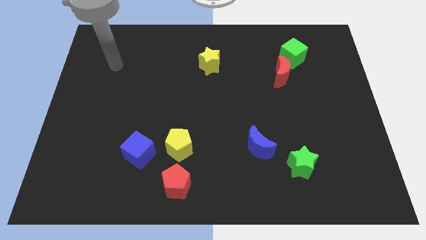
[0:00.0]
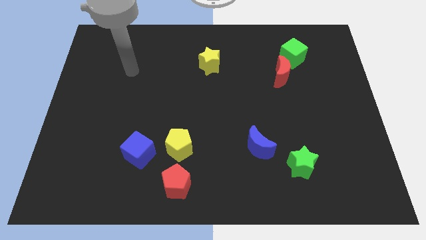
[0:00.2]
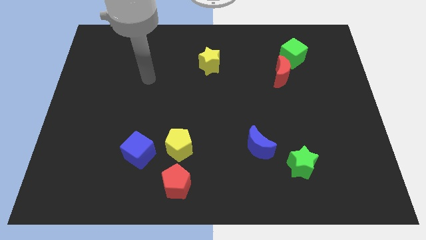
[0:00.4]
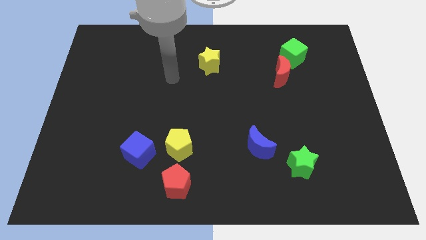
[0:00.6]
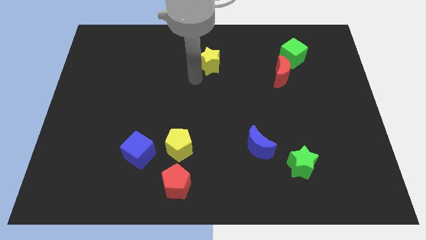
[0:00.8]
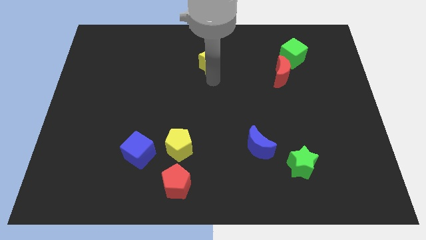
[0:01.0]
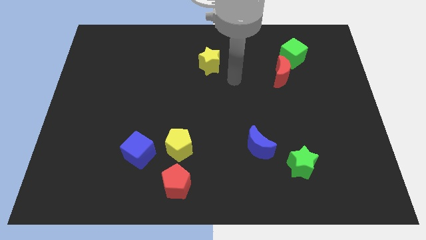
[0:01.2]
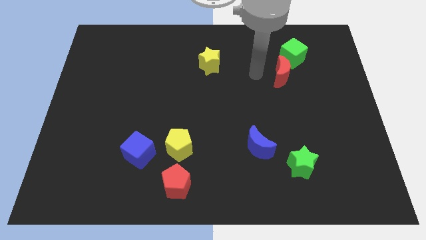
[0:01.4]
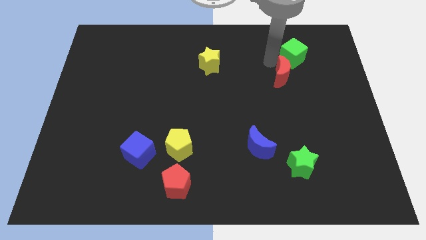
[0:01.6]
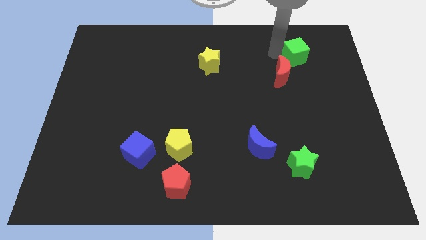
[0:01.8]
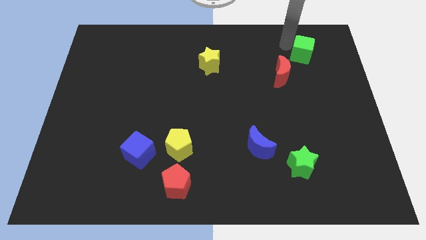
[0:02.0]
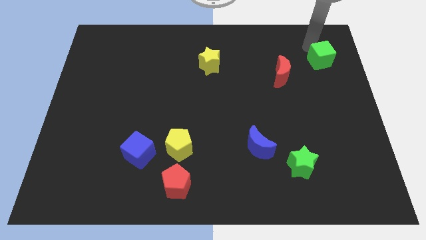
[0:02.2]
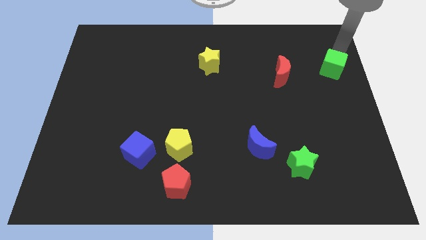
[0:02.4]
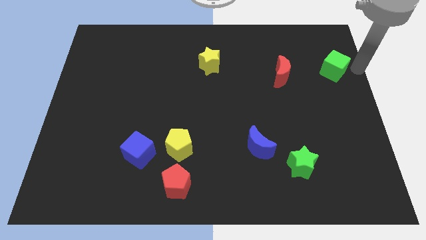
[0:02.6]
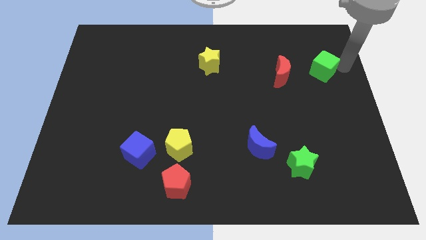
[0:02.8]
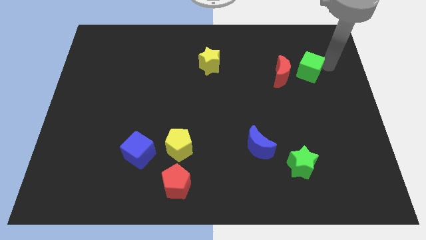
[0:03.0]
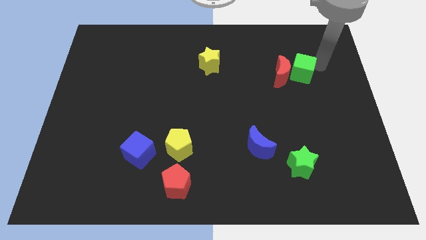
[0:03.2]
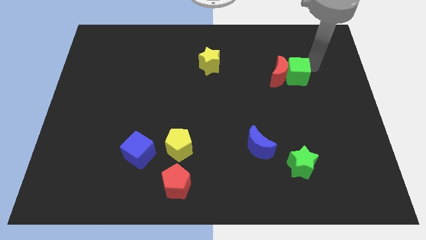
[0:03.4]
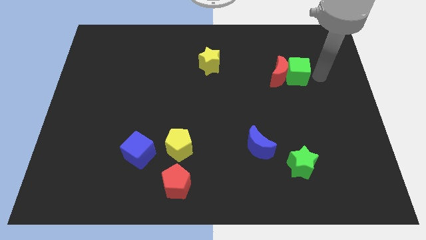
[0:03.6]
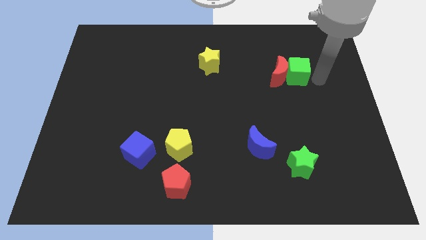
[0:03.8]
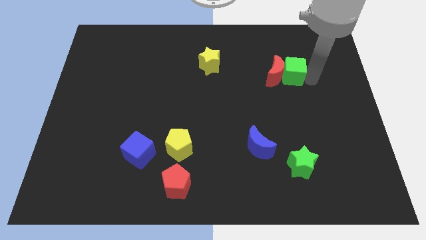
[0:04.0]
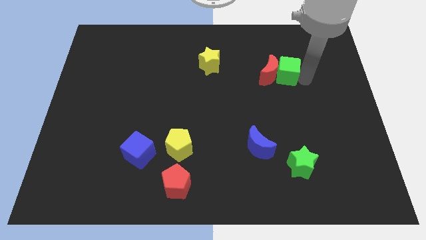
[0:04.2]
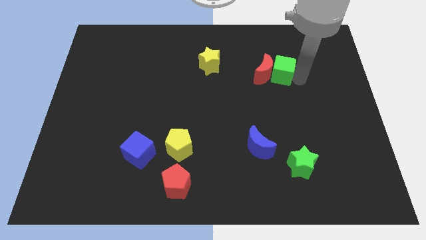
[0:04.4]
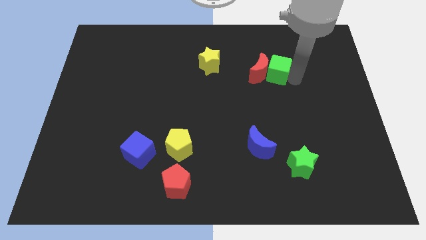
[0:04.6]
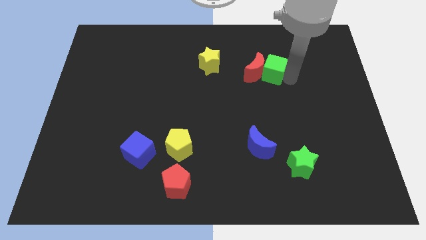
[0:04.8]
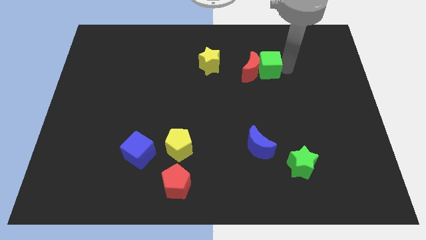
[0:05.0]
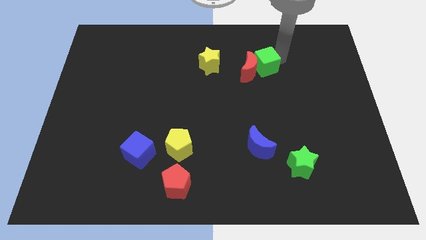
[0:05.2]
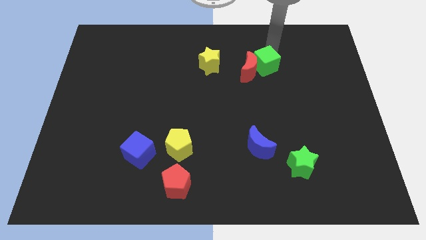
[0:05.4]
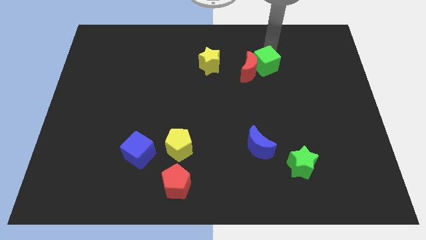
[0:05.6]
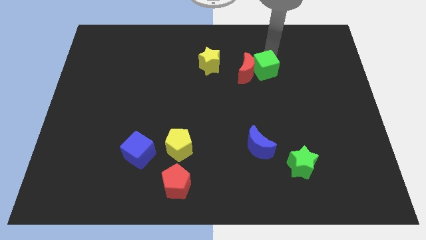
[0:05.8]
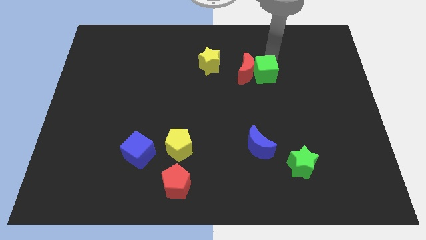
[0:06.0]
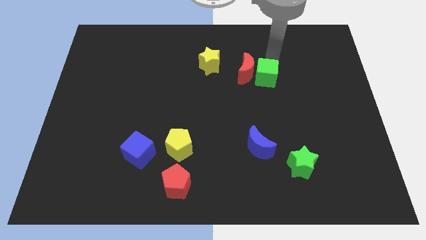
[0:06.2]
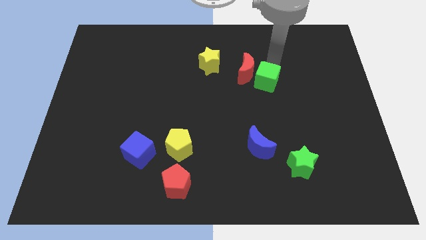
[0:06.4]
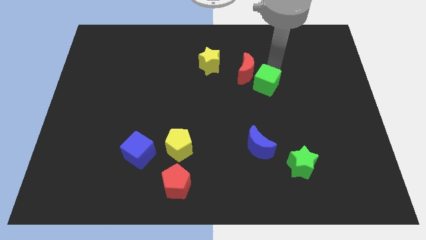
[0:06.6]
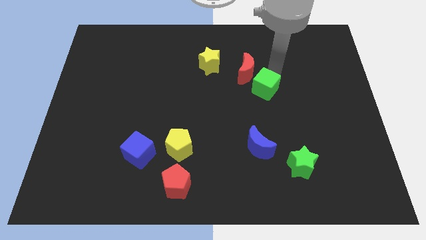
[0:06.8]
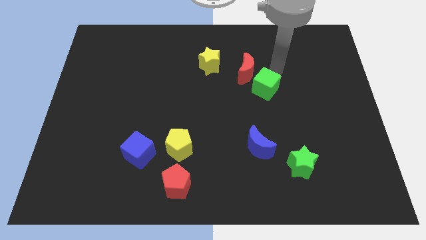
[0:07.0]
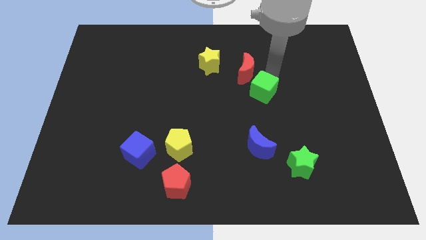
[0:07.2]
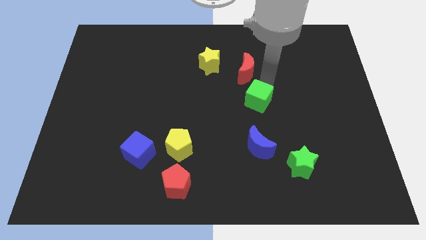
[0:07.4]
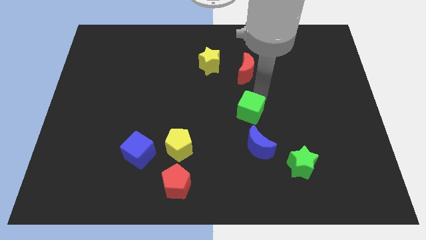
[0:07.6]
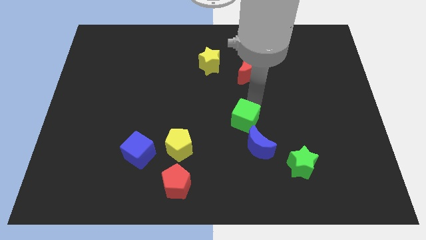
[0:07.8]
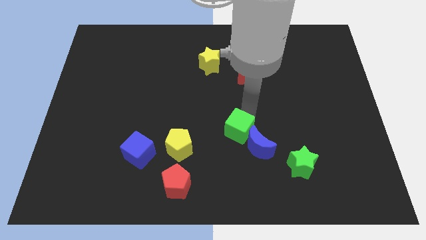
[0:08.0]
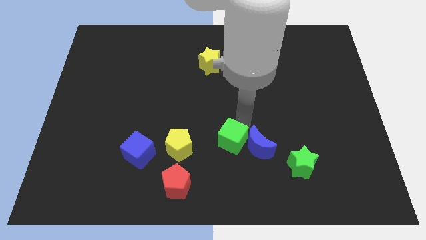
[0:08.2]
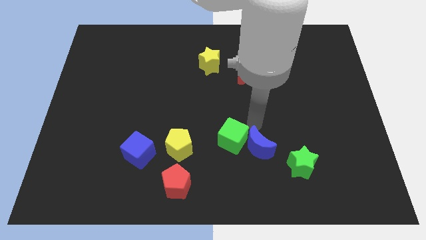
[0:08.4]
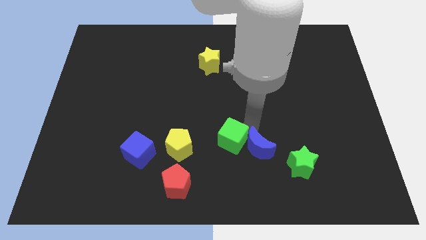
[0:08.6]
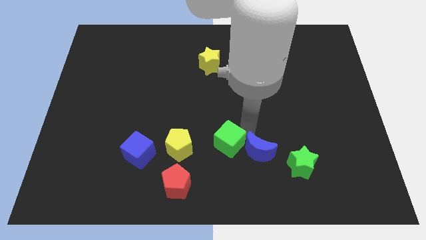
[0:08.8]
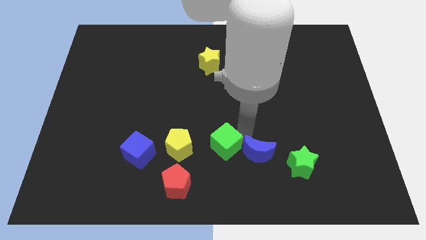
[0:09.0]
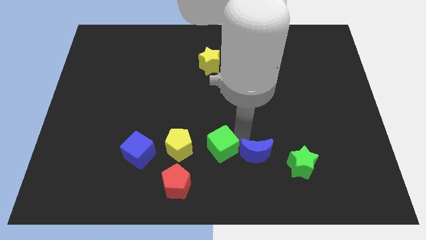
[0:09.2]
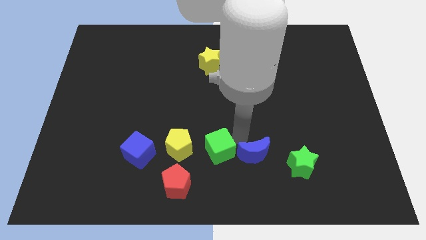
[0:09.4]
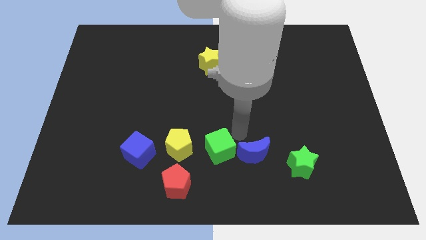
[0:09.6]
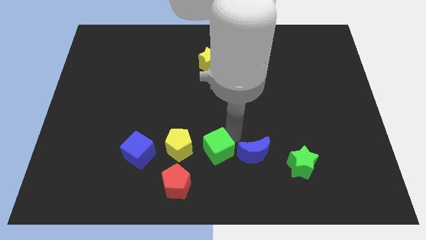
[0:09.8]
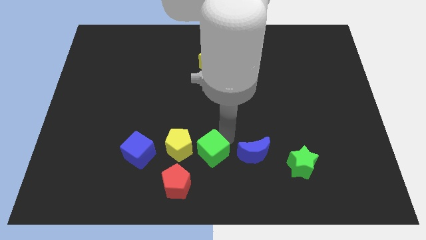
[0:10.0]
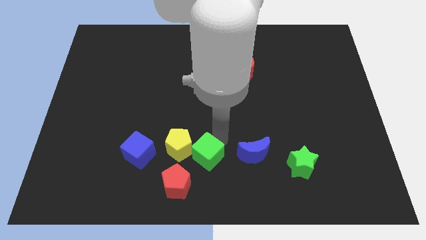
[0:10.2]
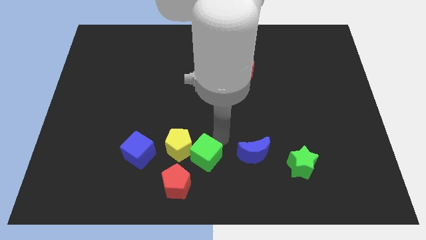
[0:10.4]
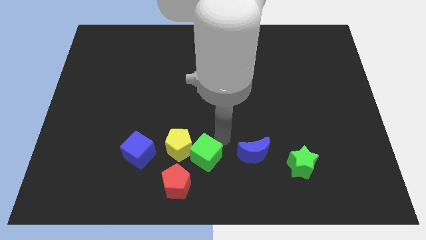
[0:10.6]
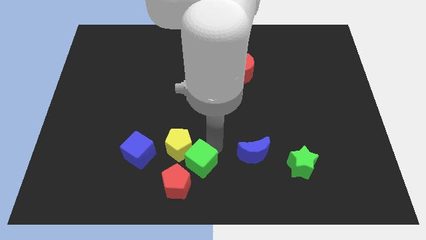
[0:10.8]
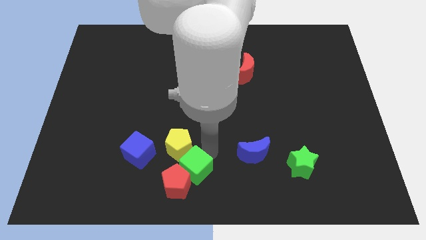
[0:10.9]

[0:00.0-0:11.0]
put the green cube next to the red pentagon

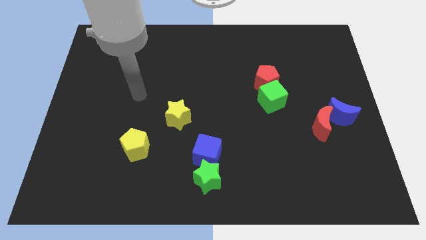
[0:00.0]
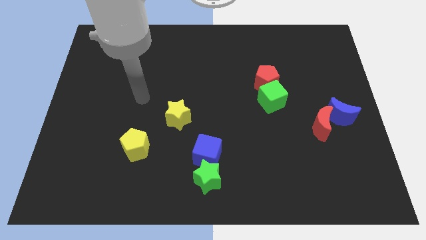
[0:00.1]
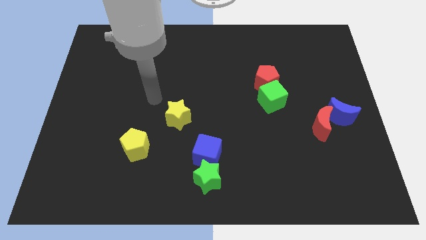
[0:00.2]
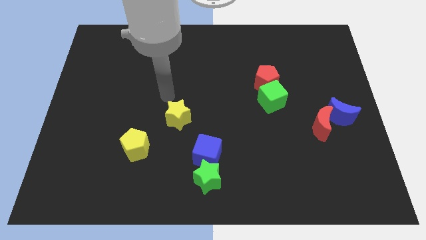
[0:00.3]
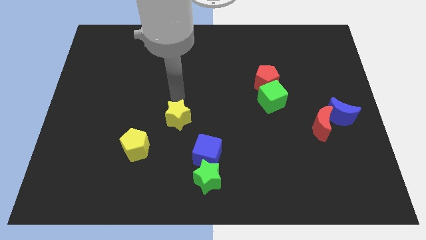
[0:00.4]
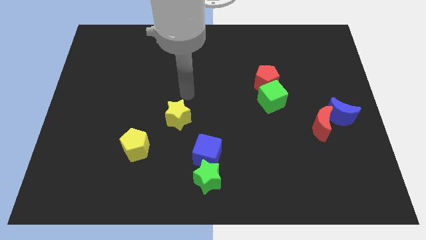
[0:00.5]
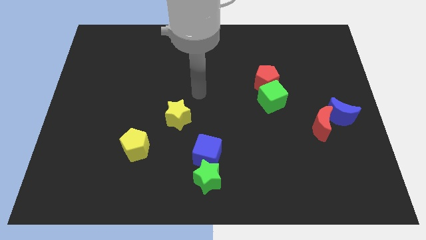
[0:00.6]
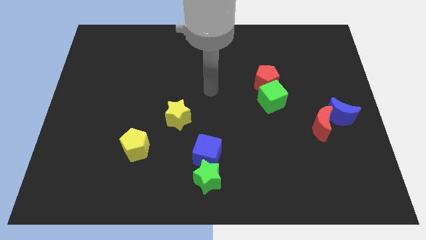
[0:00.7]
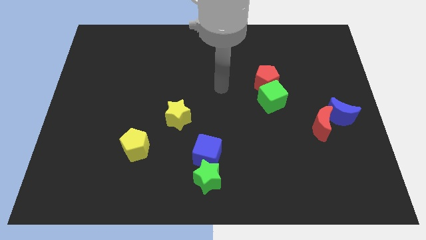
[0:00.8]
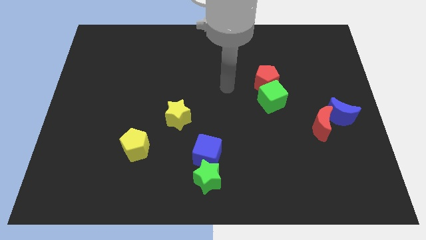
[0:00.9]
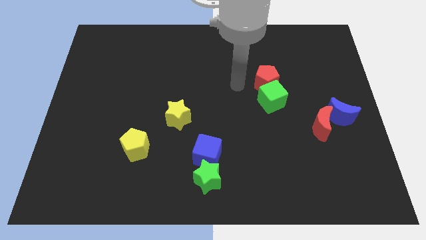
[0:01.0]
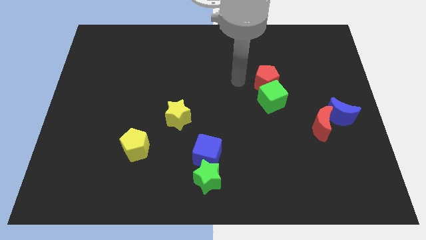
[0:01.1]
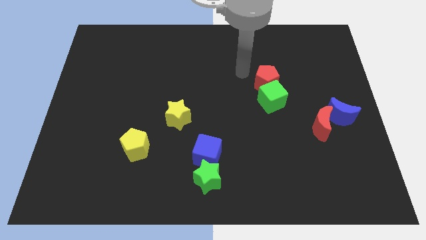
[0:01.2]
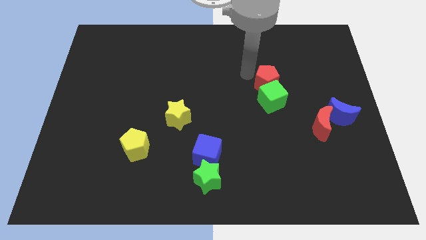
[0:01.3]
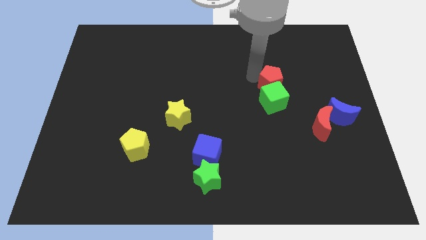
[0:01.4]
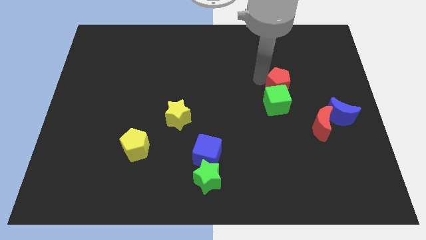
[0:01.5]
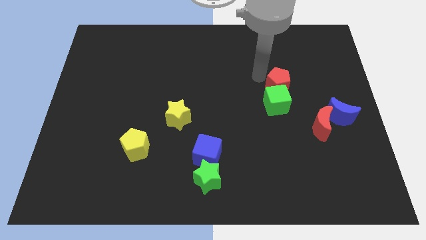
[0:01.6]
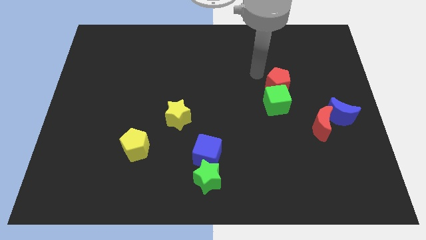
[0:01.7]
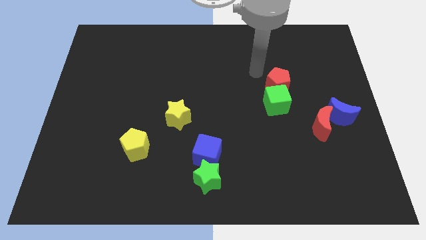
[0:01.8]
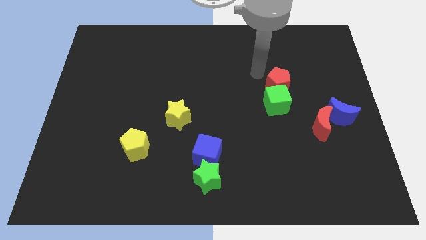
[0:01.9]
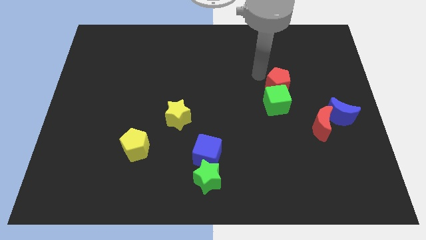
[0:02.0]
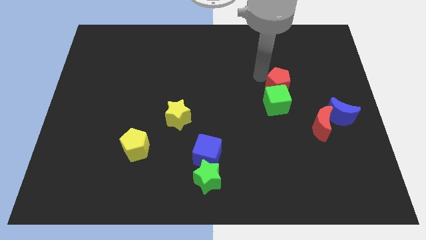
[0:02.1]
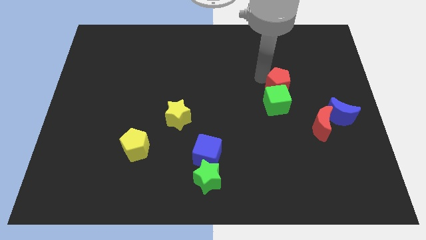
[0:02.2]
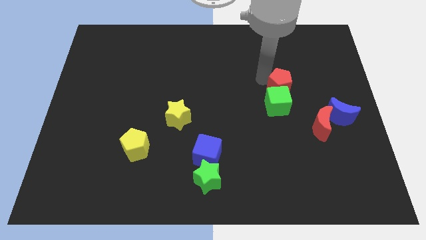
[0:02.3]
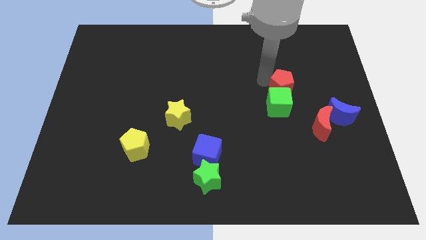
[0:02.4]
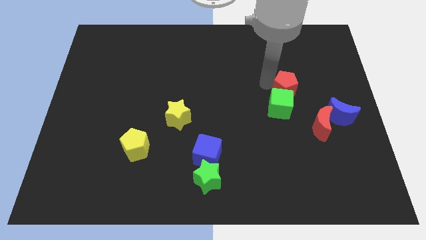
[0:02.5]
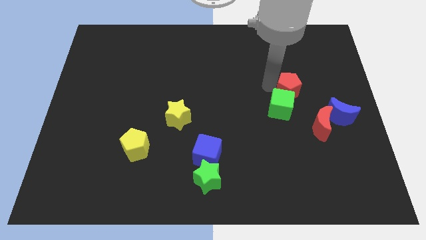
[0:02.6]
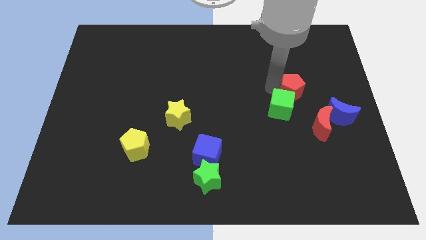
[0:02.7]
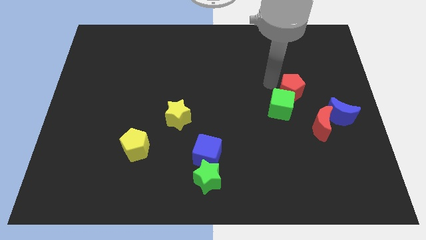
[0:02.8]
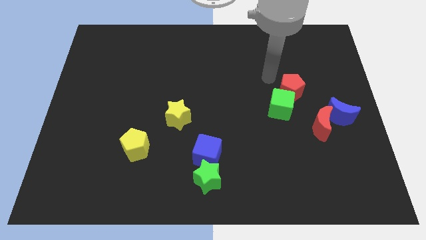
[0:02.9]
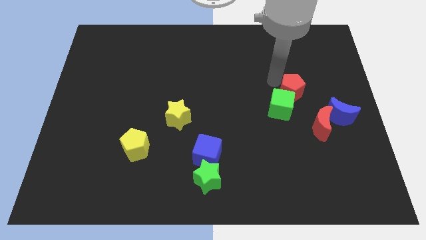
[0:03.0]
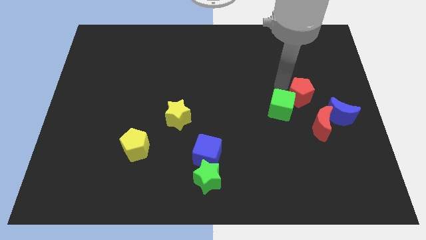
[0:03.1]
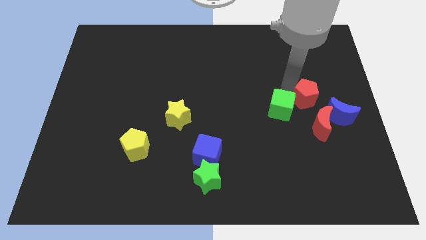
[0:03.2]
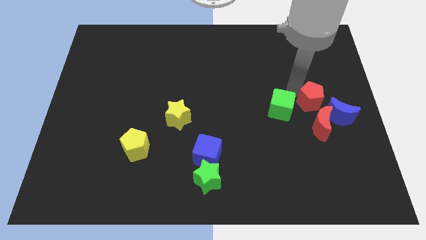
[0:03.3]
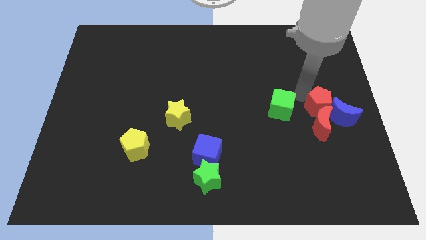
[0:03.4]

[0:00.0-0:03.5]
move the red pentagon close to the blue moon
